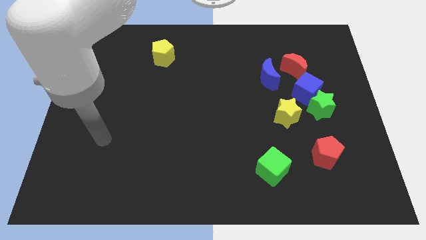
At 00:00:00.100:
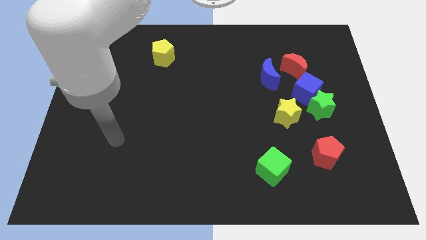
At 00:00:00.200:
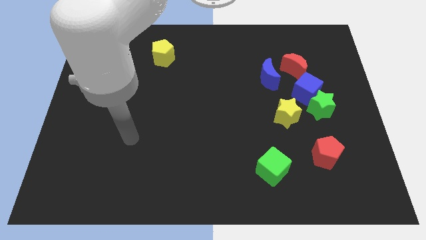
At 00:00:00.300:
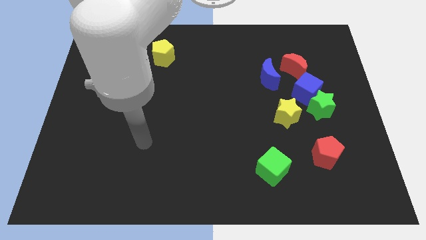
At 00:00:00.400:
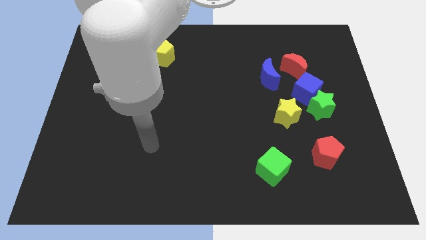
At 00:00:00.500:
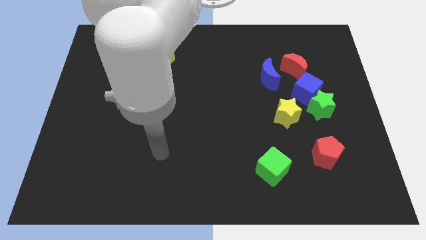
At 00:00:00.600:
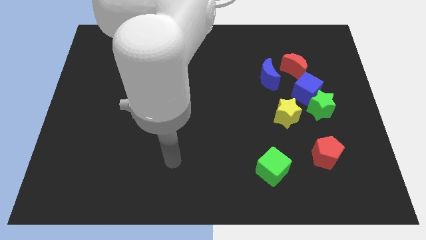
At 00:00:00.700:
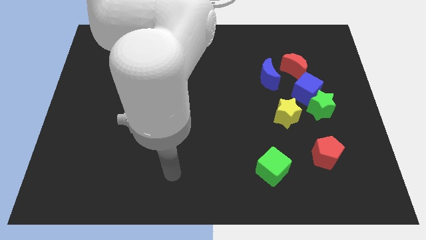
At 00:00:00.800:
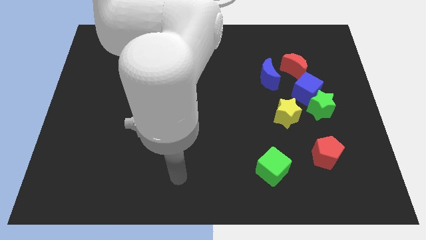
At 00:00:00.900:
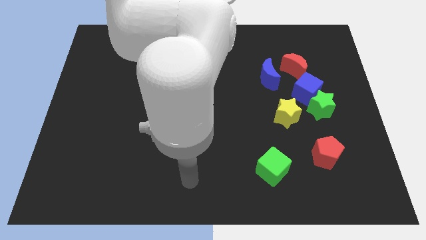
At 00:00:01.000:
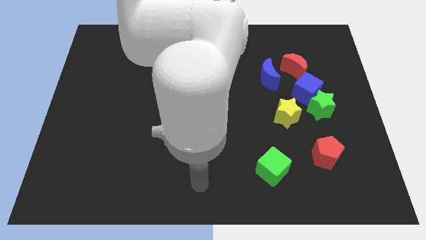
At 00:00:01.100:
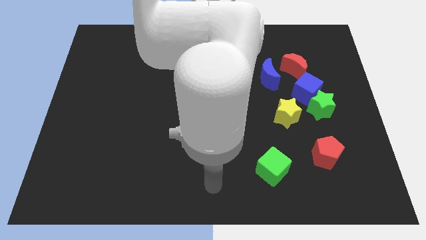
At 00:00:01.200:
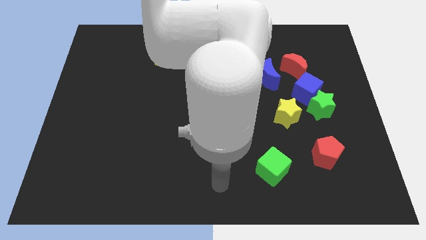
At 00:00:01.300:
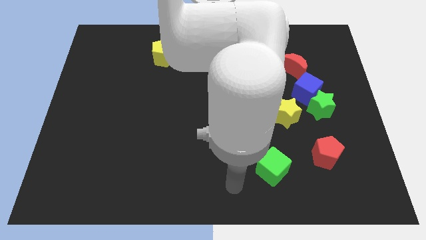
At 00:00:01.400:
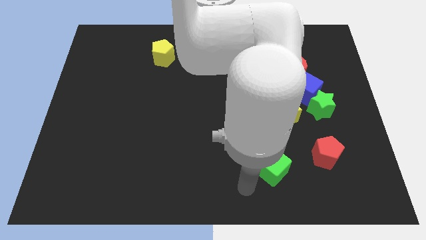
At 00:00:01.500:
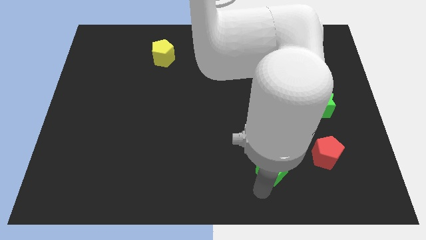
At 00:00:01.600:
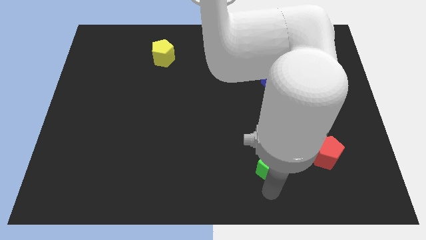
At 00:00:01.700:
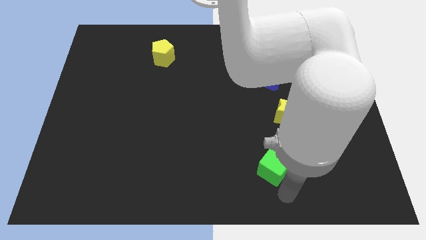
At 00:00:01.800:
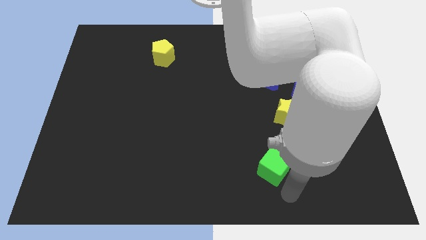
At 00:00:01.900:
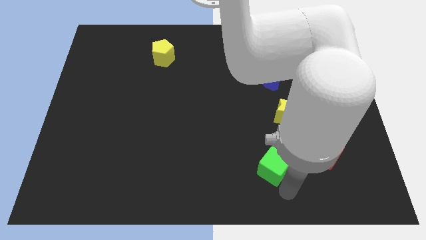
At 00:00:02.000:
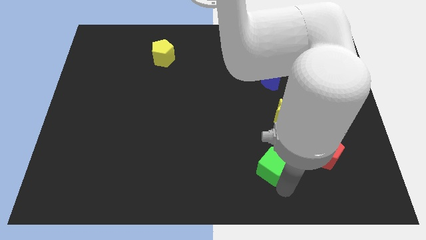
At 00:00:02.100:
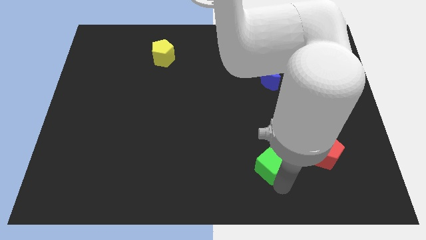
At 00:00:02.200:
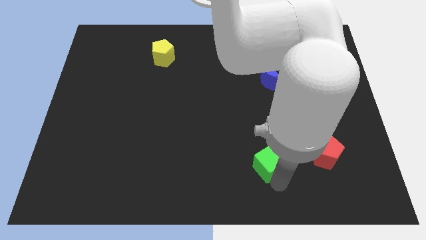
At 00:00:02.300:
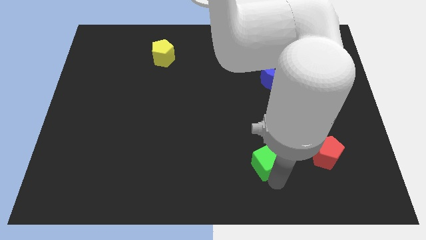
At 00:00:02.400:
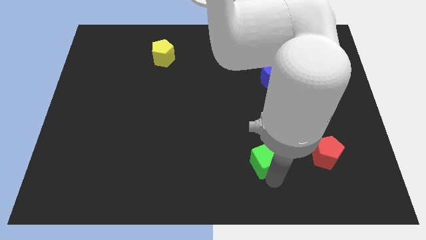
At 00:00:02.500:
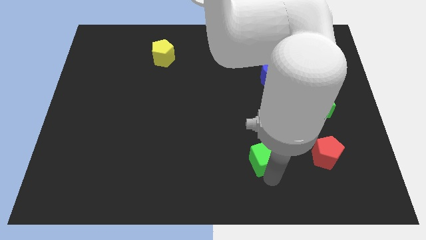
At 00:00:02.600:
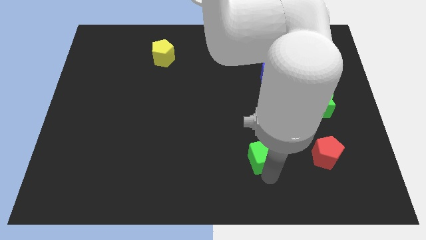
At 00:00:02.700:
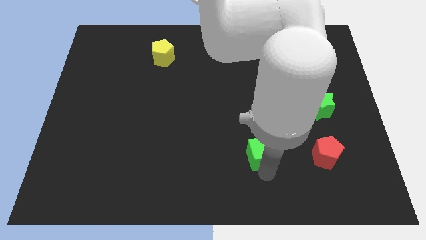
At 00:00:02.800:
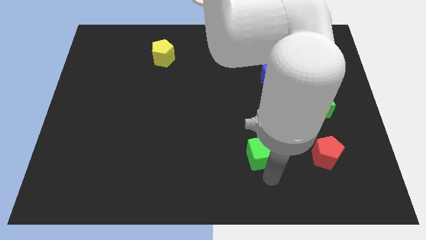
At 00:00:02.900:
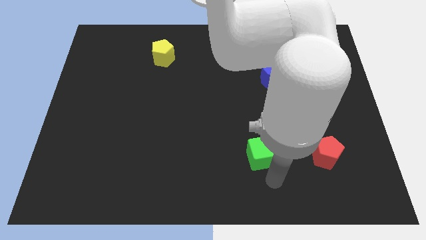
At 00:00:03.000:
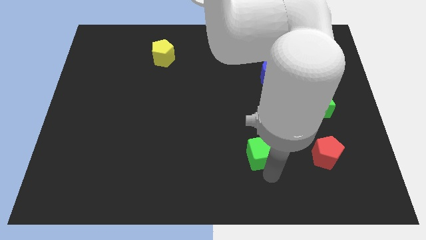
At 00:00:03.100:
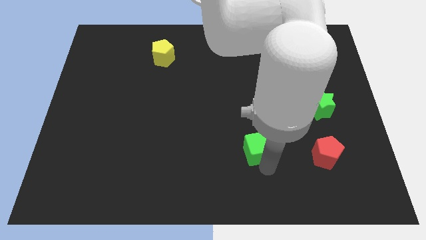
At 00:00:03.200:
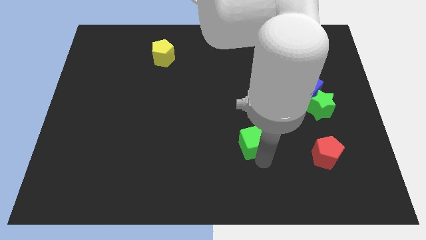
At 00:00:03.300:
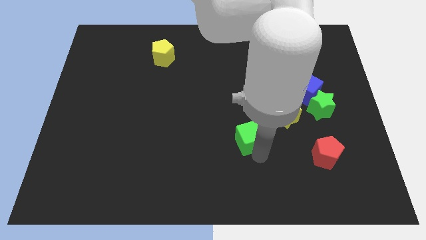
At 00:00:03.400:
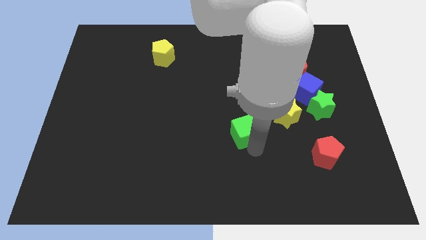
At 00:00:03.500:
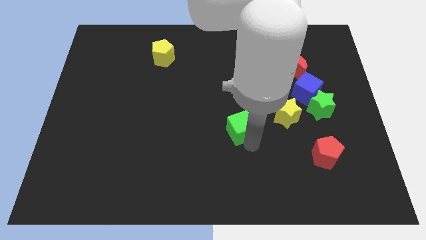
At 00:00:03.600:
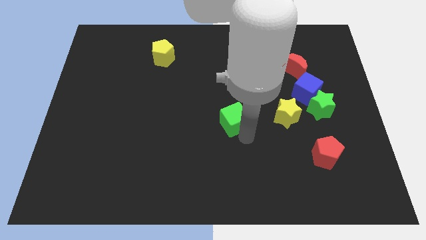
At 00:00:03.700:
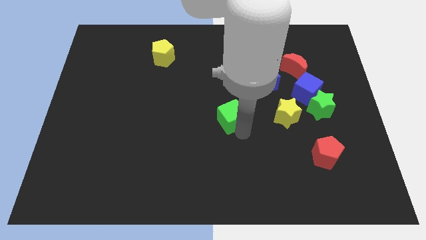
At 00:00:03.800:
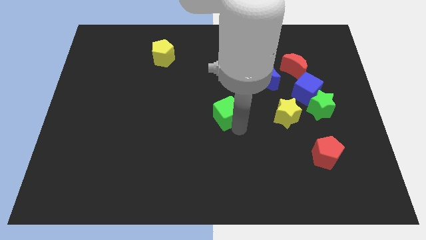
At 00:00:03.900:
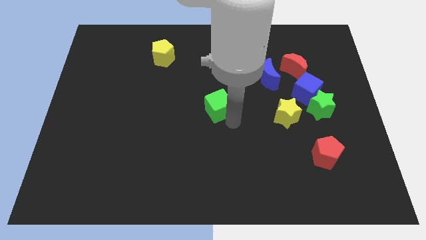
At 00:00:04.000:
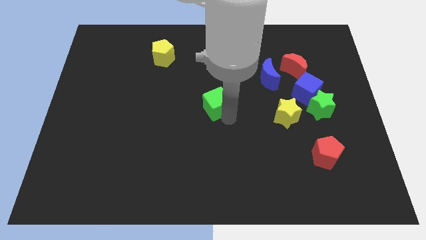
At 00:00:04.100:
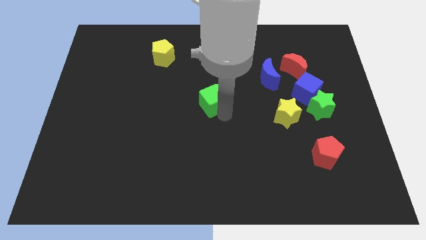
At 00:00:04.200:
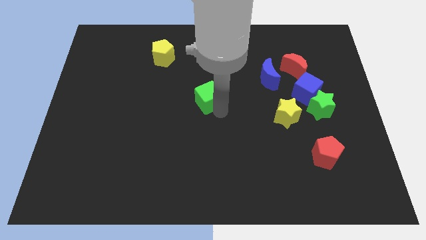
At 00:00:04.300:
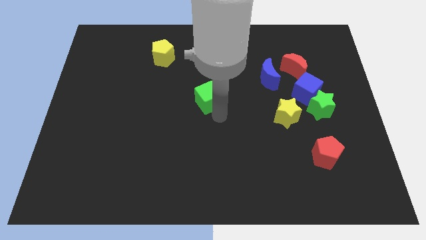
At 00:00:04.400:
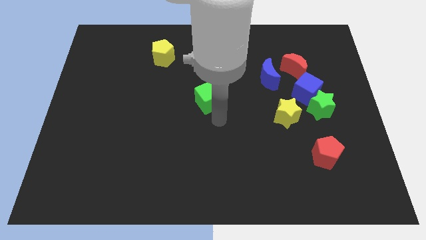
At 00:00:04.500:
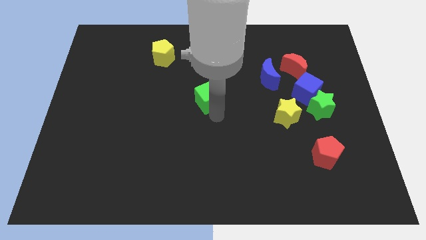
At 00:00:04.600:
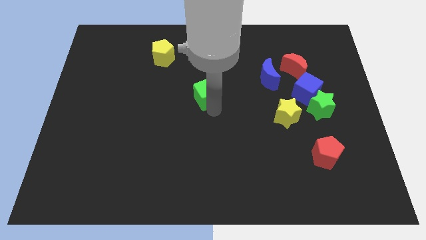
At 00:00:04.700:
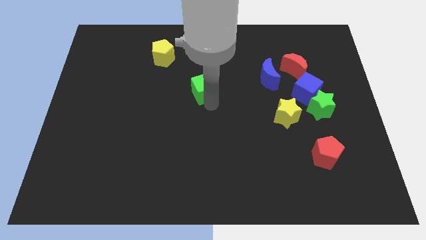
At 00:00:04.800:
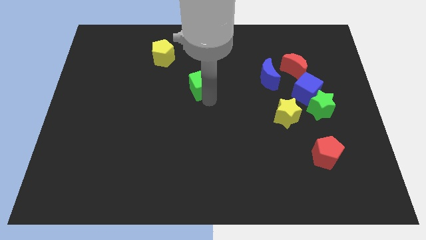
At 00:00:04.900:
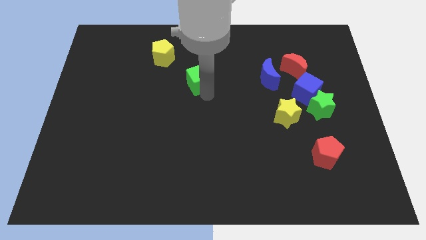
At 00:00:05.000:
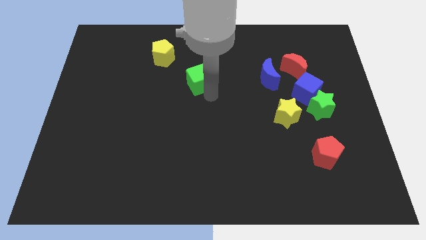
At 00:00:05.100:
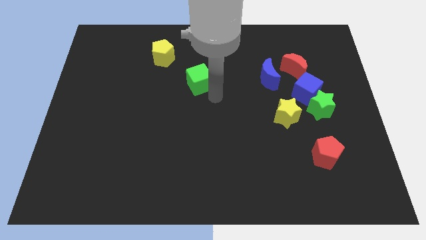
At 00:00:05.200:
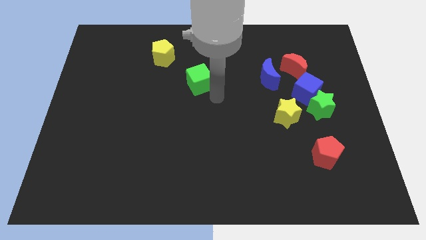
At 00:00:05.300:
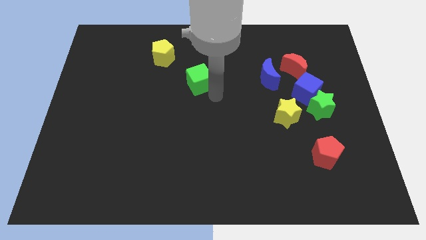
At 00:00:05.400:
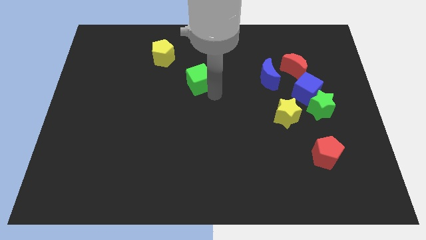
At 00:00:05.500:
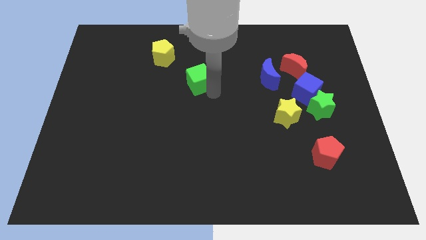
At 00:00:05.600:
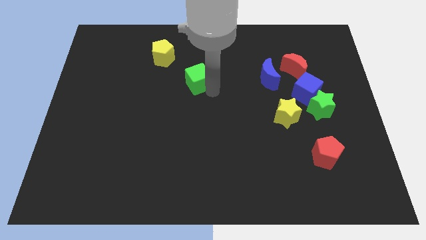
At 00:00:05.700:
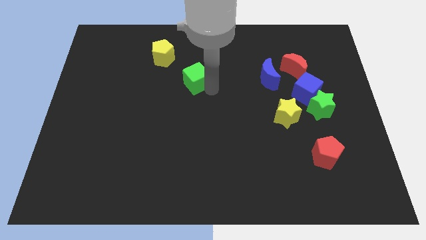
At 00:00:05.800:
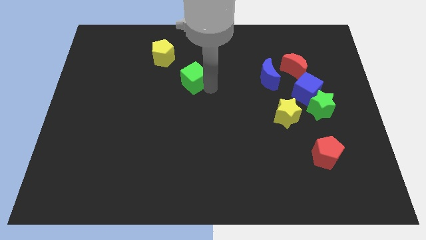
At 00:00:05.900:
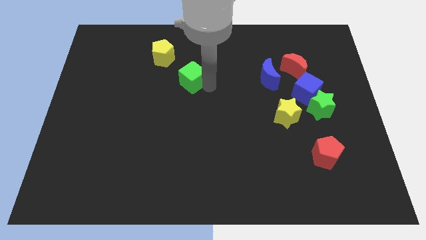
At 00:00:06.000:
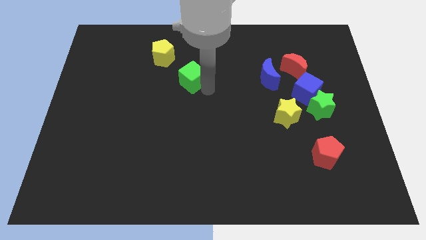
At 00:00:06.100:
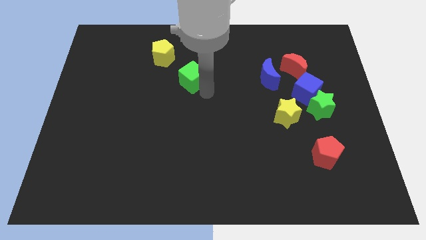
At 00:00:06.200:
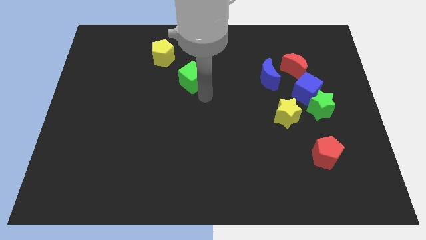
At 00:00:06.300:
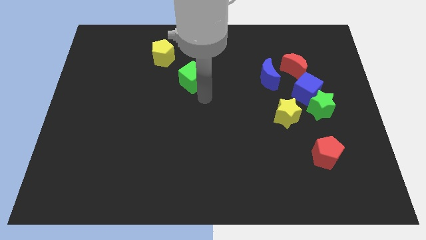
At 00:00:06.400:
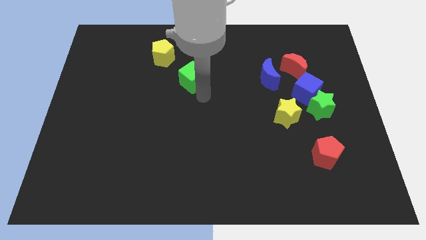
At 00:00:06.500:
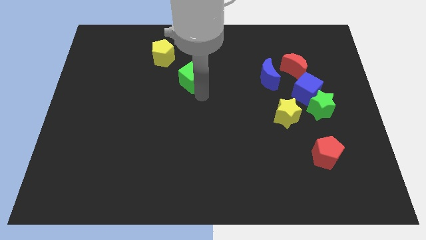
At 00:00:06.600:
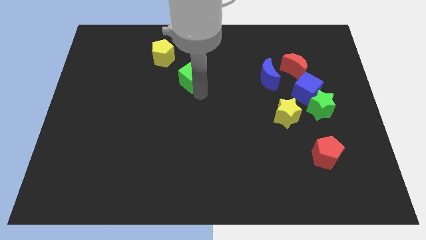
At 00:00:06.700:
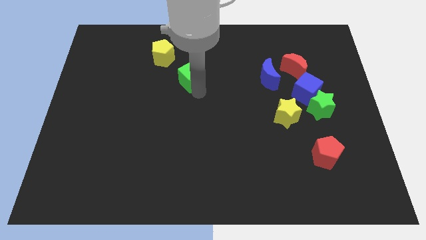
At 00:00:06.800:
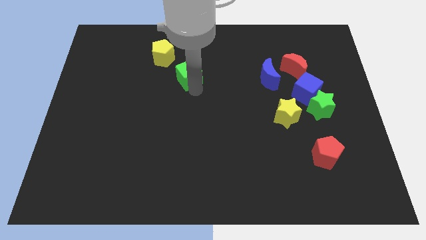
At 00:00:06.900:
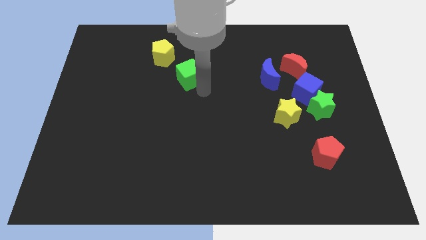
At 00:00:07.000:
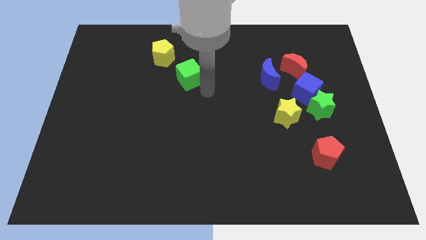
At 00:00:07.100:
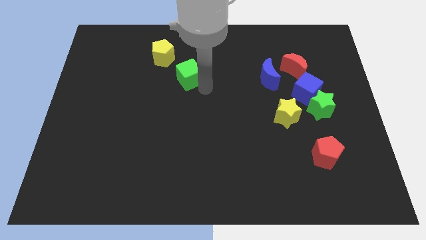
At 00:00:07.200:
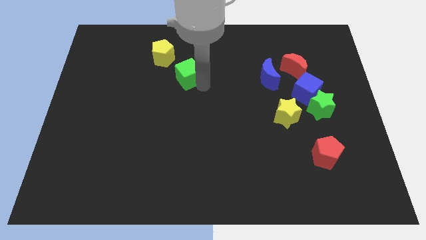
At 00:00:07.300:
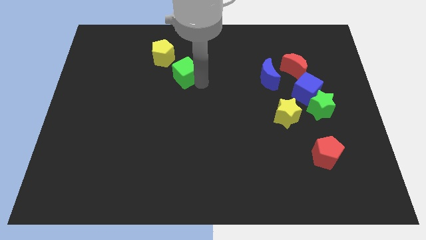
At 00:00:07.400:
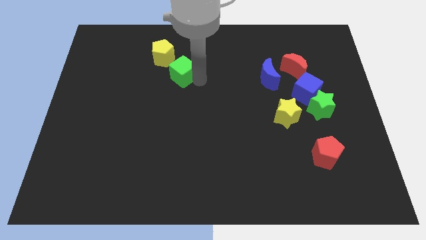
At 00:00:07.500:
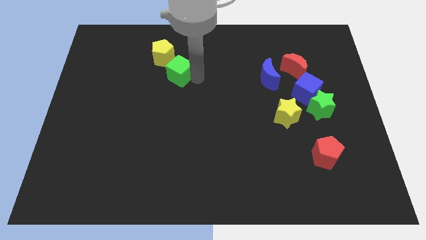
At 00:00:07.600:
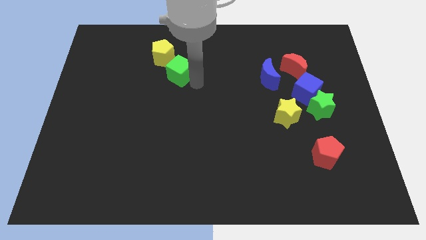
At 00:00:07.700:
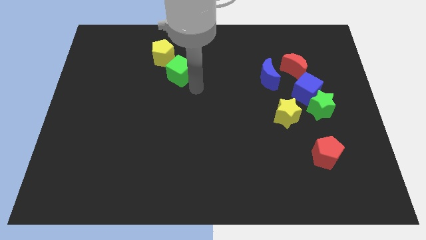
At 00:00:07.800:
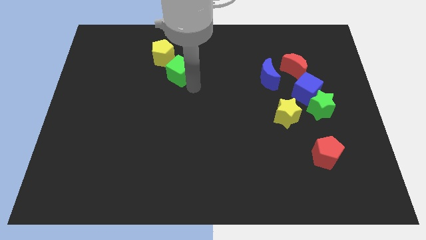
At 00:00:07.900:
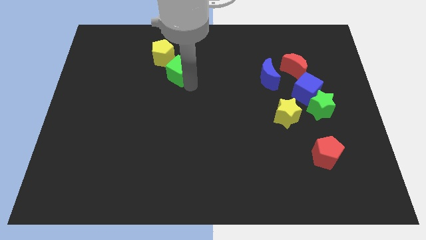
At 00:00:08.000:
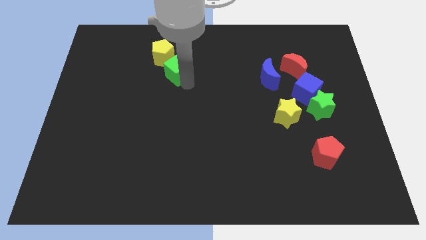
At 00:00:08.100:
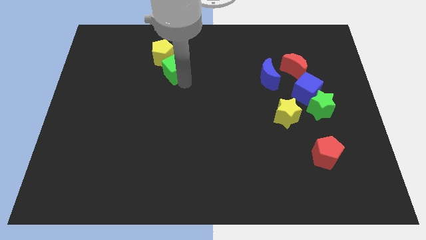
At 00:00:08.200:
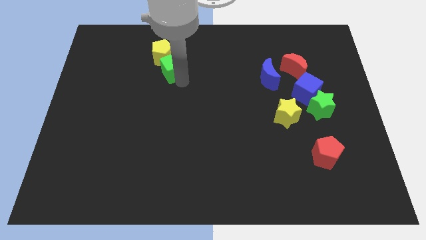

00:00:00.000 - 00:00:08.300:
move the green cube towards the yellow pentagon
